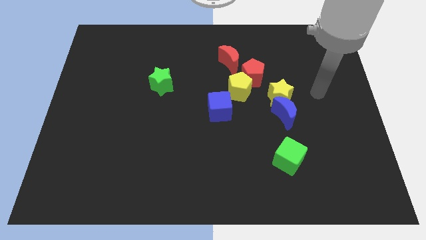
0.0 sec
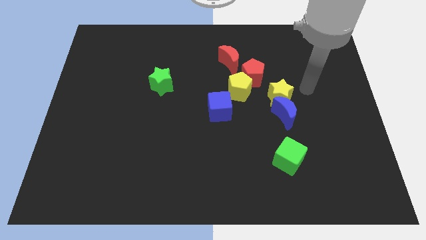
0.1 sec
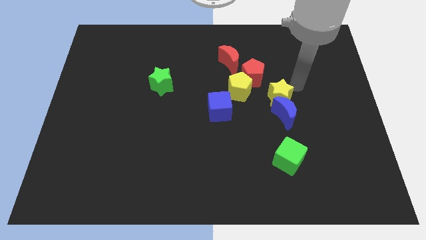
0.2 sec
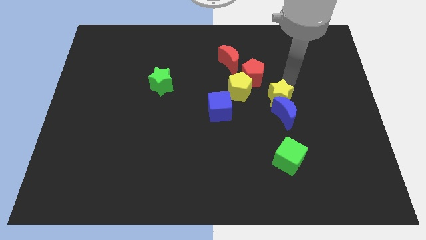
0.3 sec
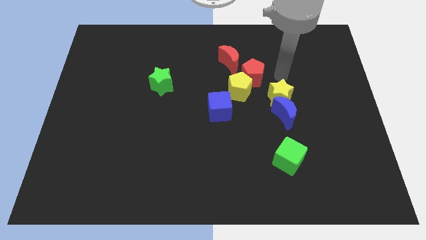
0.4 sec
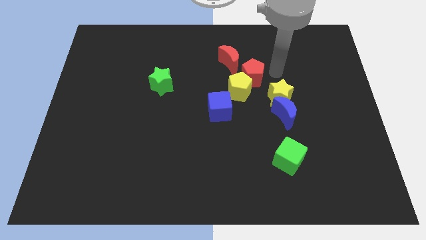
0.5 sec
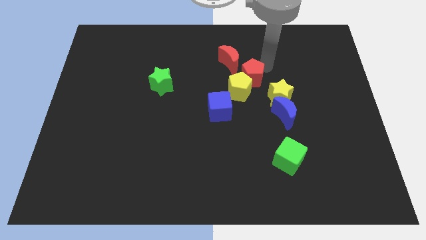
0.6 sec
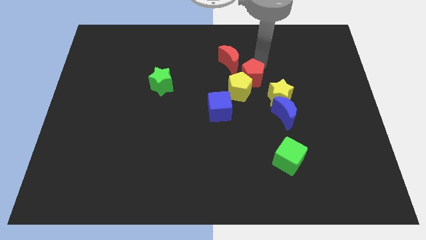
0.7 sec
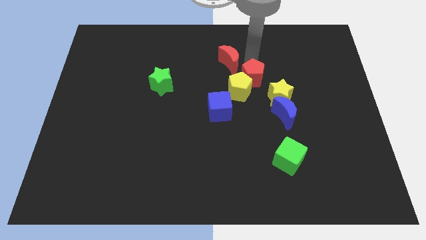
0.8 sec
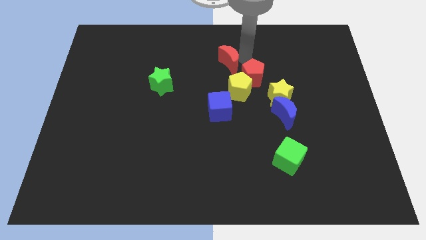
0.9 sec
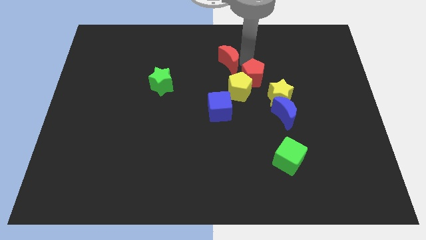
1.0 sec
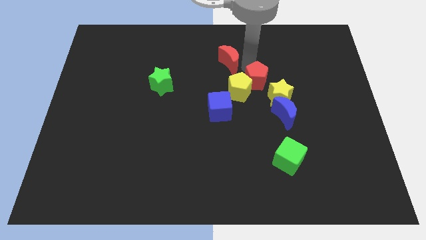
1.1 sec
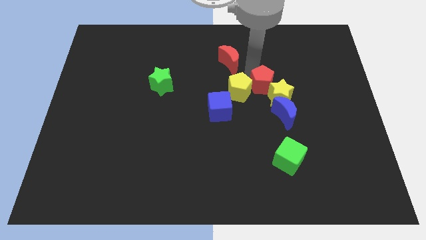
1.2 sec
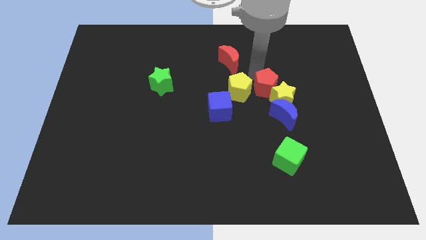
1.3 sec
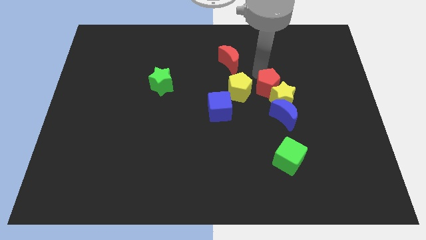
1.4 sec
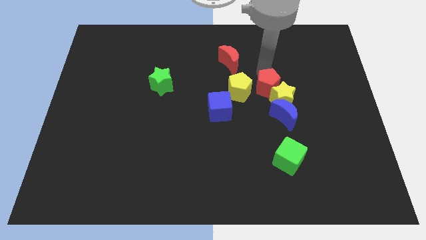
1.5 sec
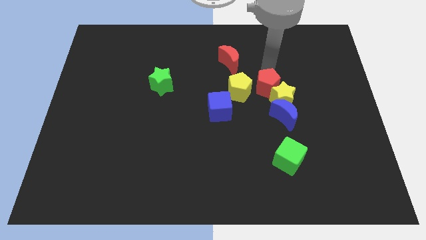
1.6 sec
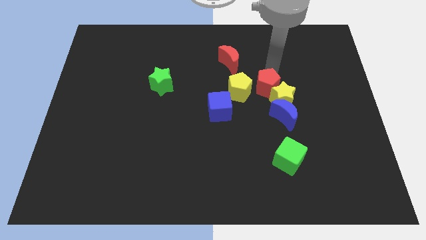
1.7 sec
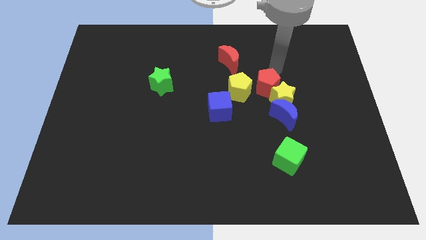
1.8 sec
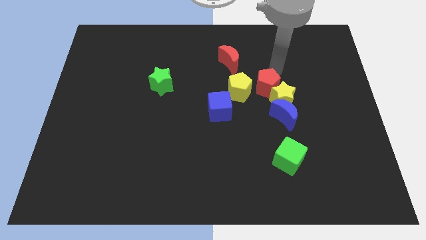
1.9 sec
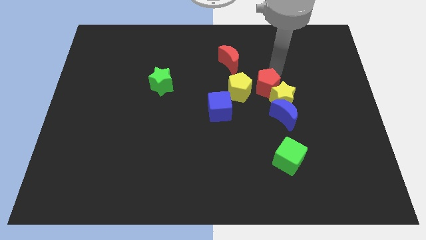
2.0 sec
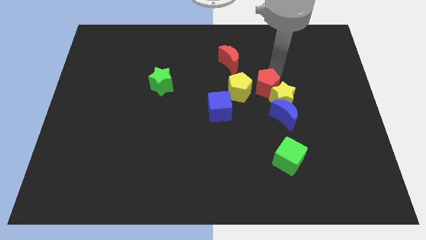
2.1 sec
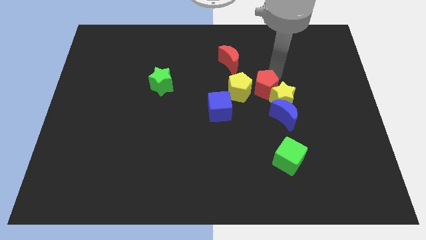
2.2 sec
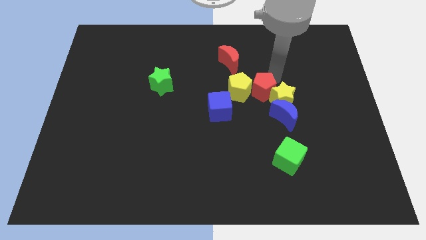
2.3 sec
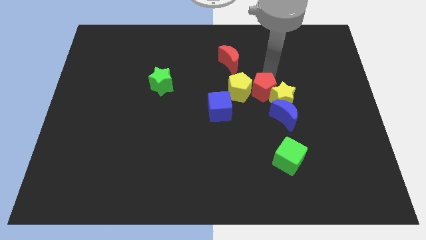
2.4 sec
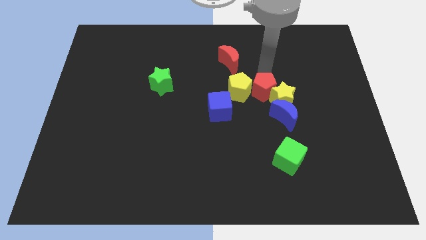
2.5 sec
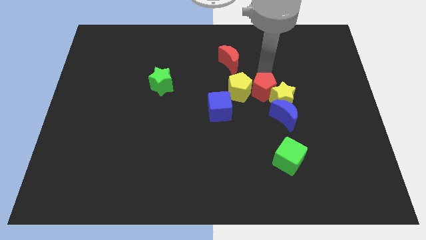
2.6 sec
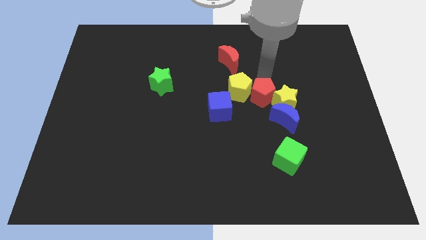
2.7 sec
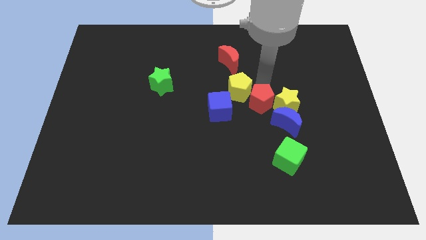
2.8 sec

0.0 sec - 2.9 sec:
slightly slide the red pentagon down

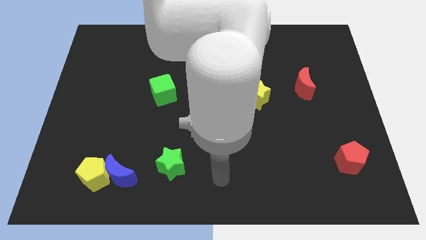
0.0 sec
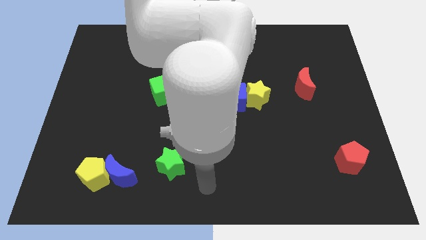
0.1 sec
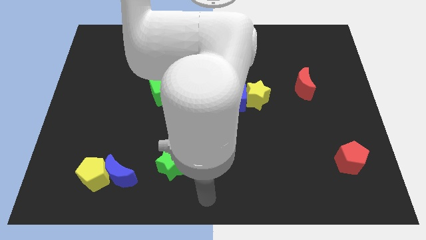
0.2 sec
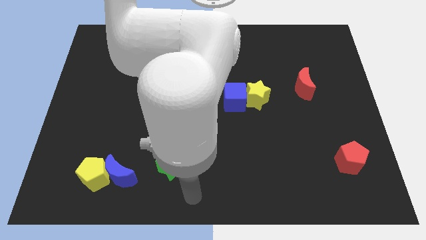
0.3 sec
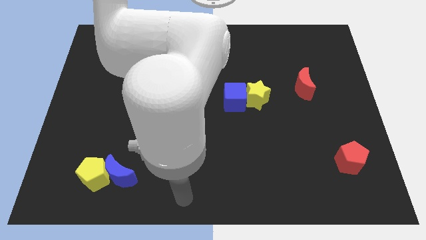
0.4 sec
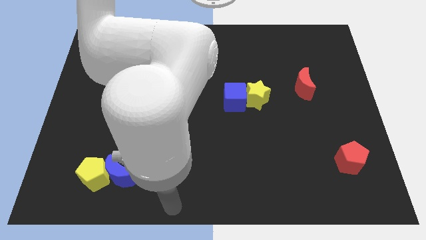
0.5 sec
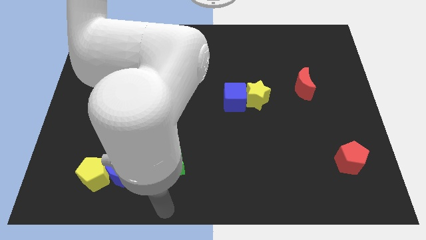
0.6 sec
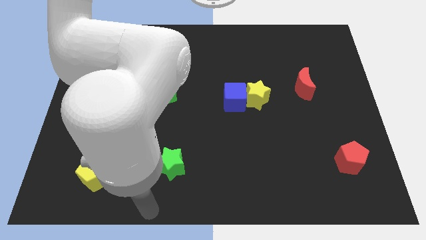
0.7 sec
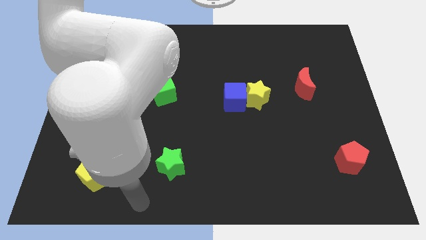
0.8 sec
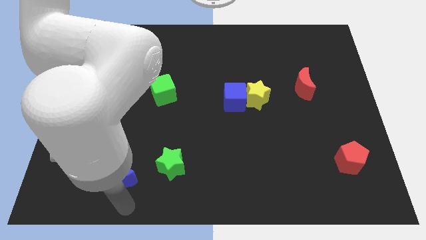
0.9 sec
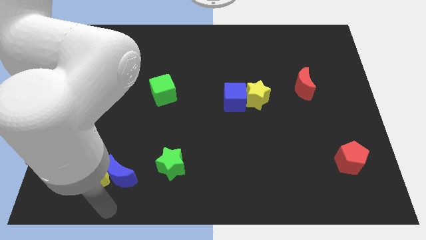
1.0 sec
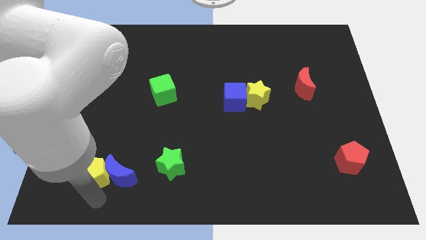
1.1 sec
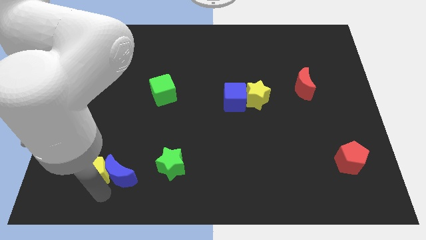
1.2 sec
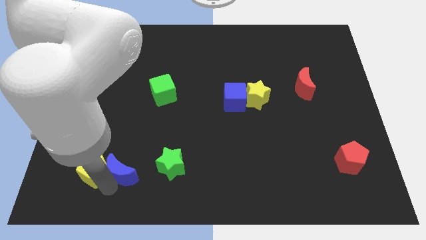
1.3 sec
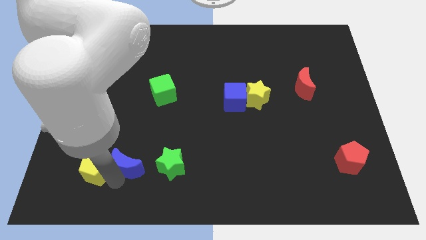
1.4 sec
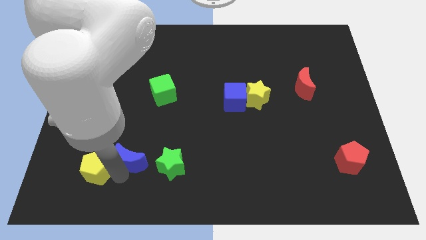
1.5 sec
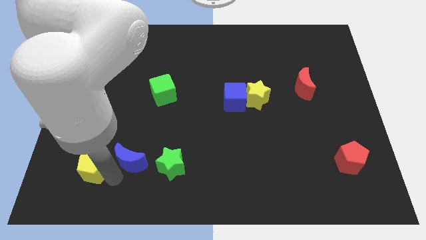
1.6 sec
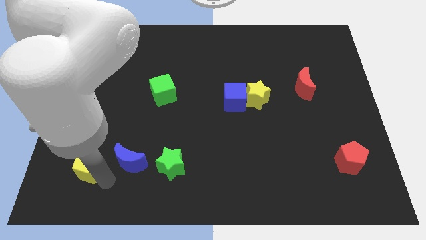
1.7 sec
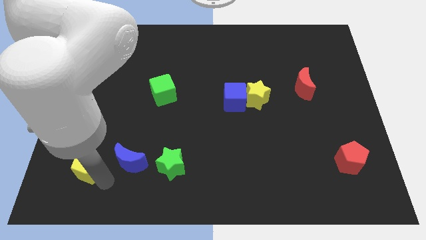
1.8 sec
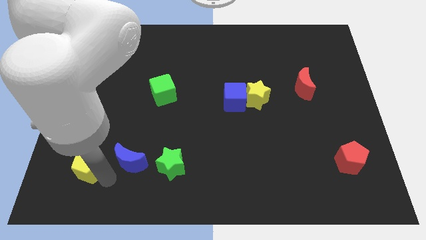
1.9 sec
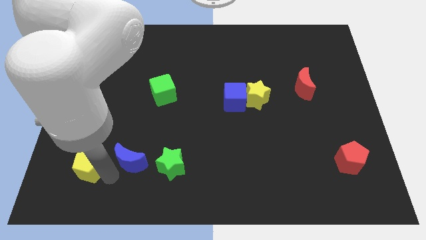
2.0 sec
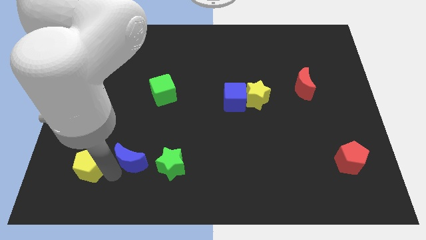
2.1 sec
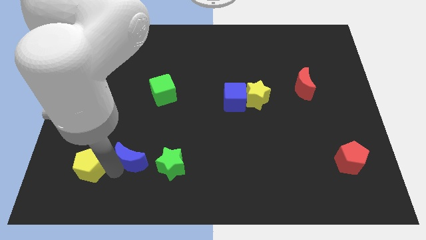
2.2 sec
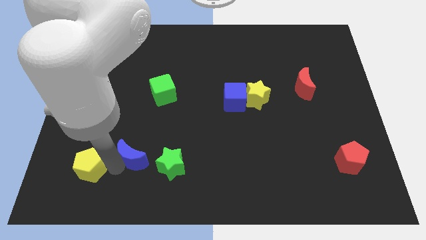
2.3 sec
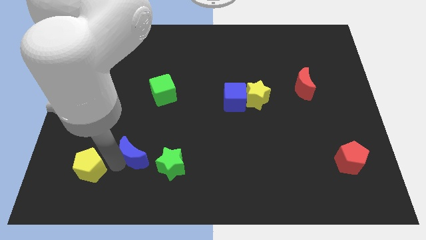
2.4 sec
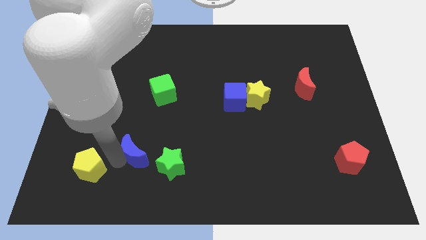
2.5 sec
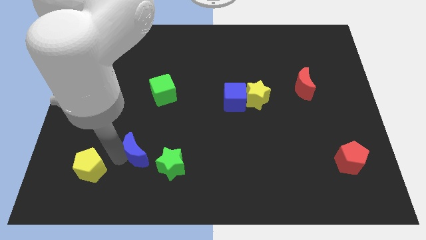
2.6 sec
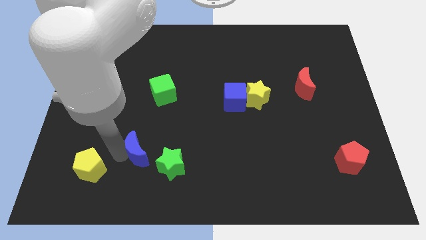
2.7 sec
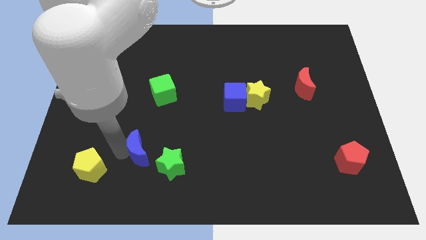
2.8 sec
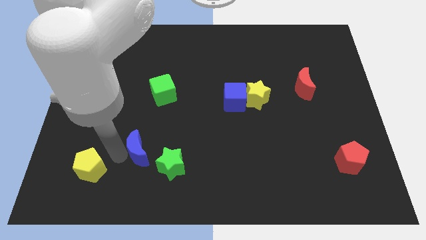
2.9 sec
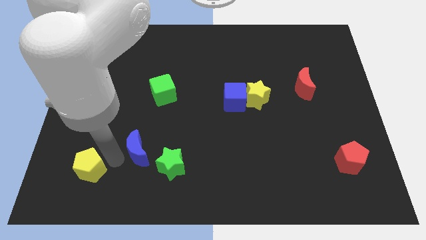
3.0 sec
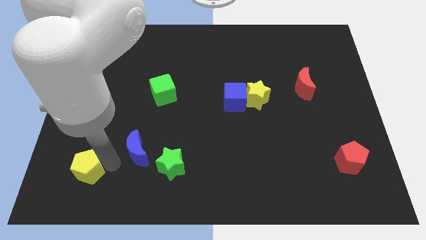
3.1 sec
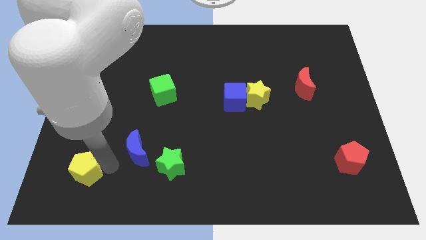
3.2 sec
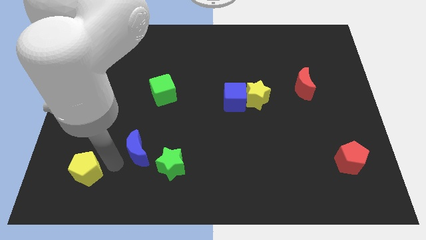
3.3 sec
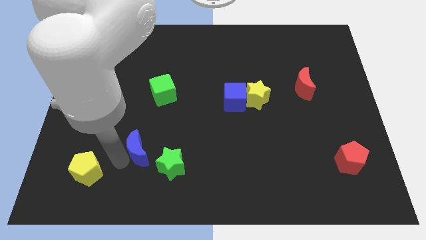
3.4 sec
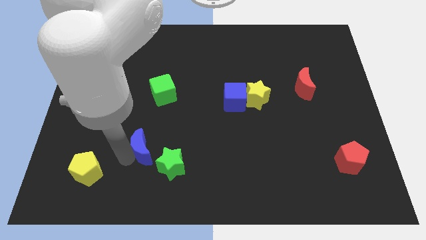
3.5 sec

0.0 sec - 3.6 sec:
move the blue moon up and right a little bit

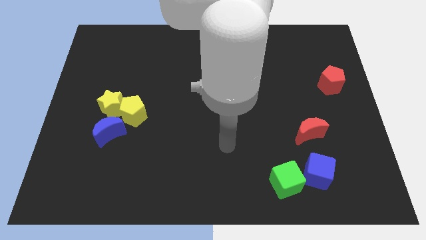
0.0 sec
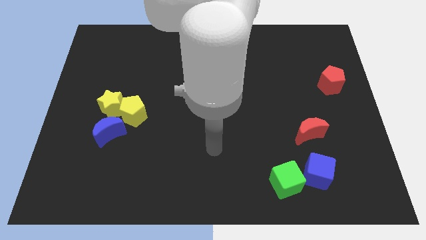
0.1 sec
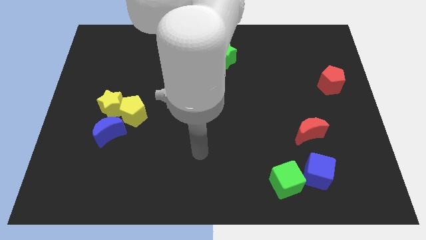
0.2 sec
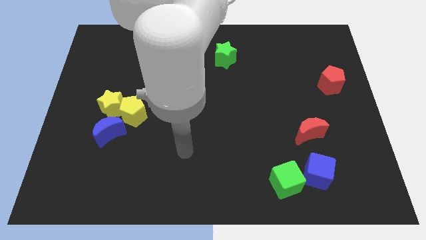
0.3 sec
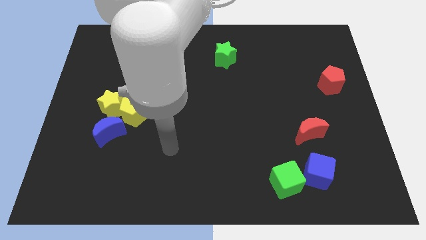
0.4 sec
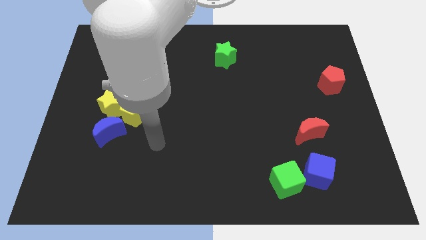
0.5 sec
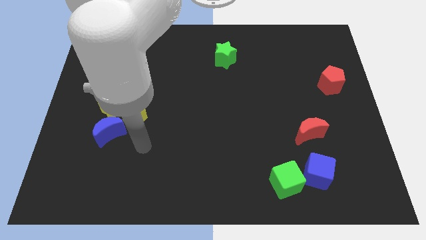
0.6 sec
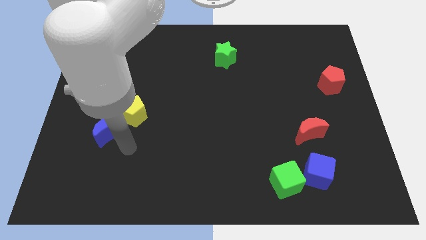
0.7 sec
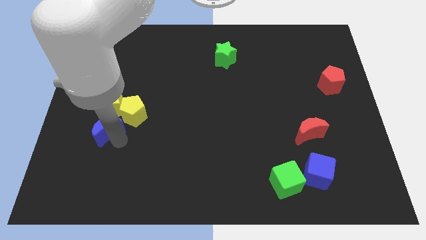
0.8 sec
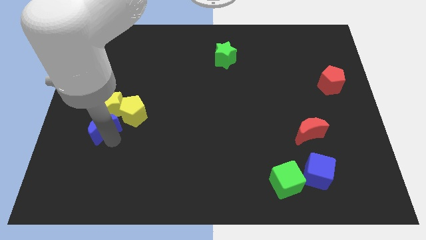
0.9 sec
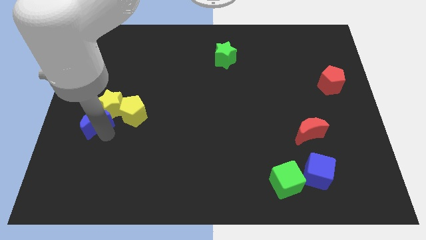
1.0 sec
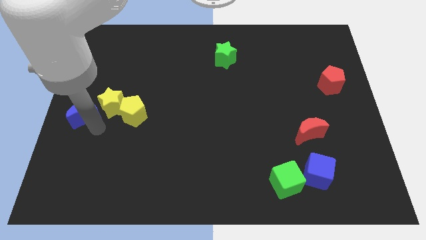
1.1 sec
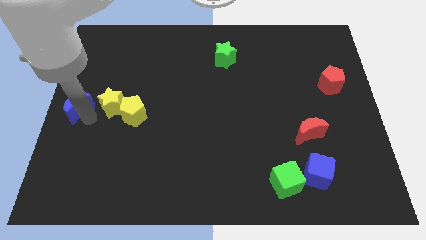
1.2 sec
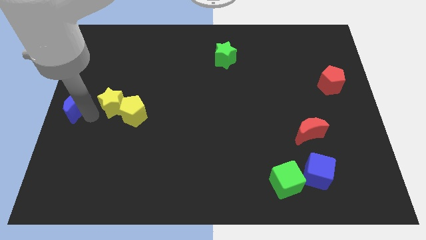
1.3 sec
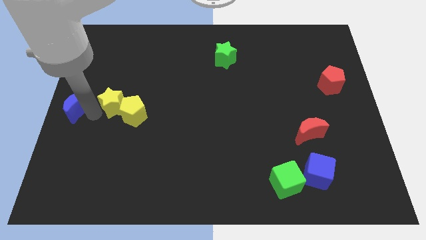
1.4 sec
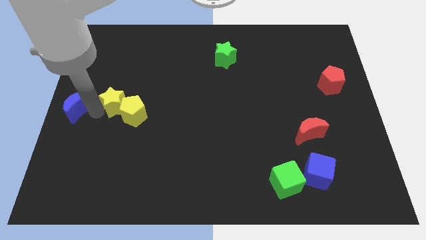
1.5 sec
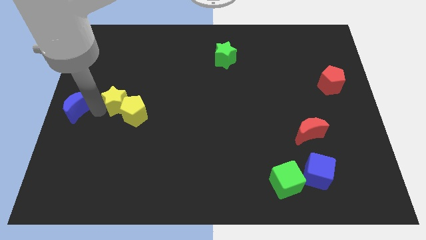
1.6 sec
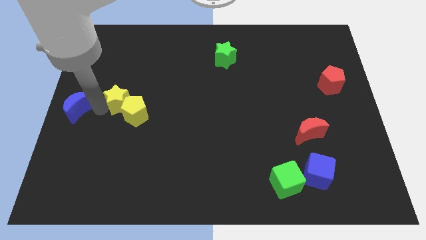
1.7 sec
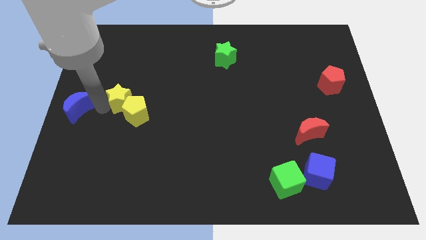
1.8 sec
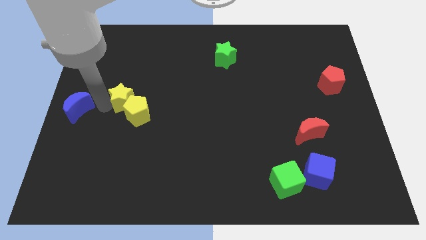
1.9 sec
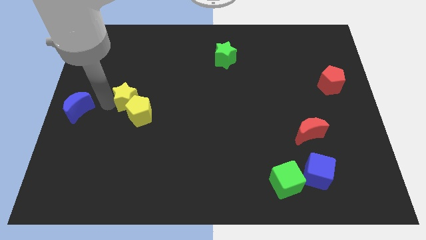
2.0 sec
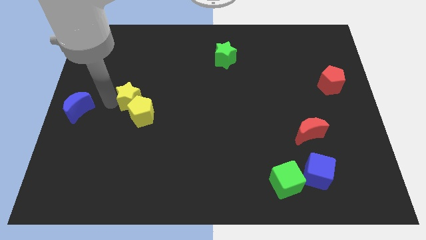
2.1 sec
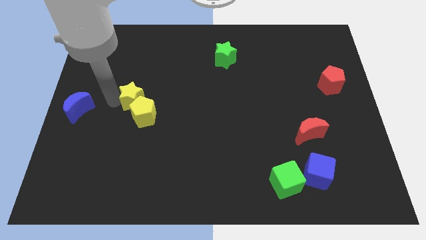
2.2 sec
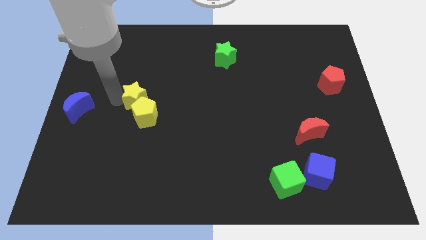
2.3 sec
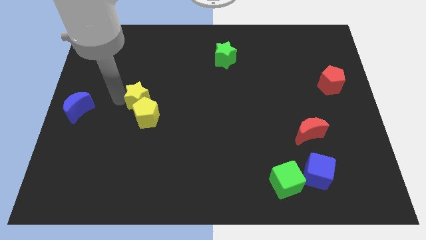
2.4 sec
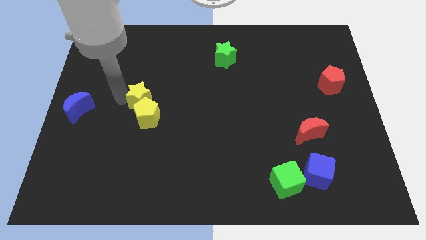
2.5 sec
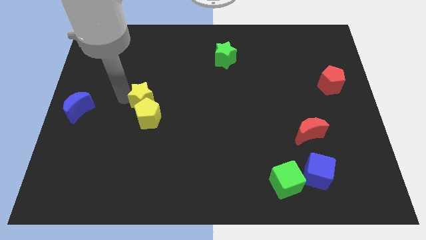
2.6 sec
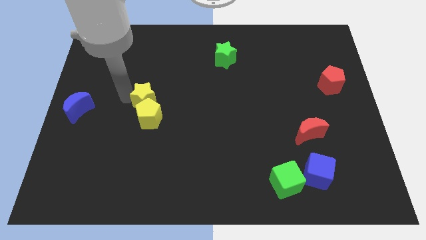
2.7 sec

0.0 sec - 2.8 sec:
slide the yellow star right a little
